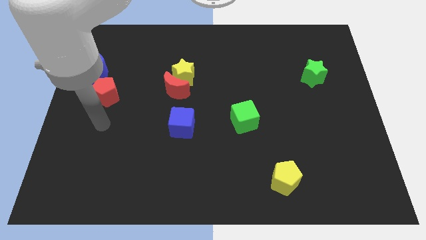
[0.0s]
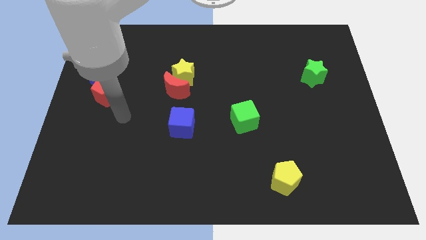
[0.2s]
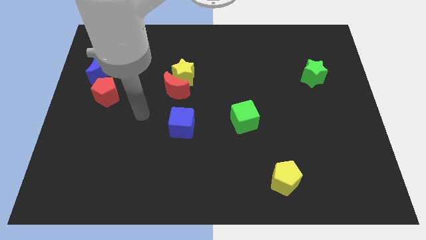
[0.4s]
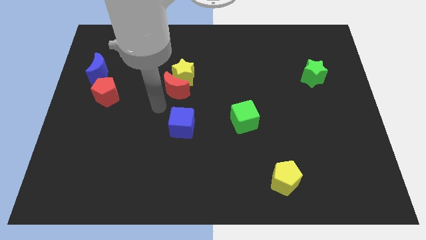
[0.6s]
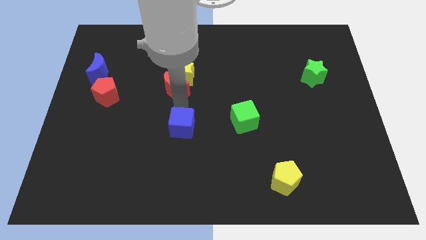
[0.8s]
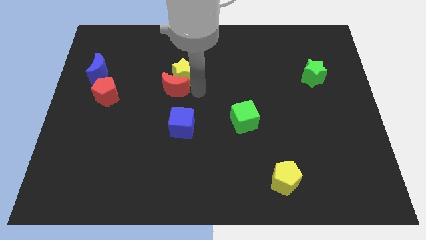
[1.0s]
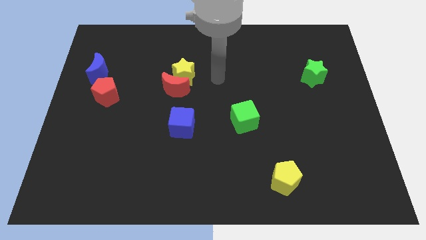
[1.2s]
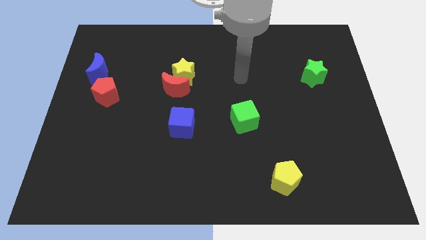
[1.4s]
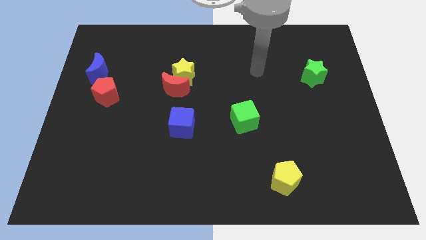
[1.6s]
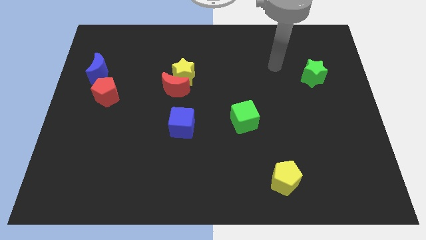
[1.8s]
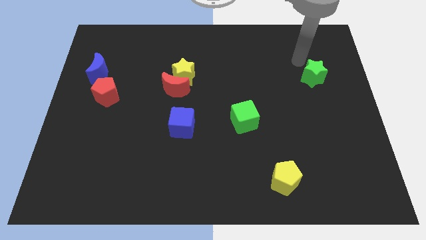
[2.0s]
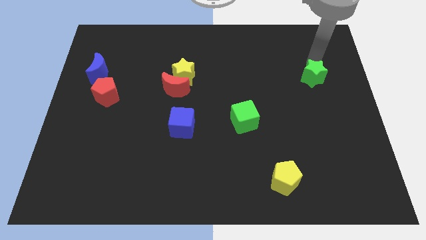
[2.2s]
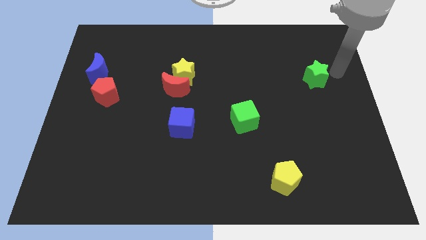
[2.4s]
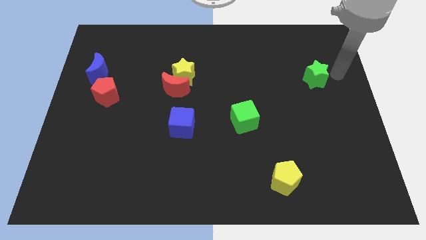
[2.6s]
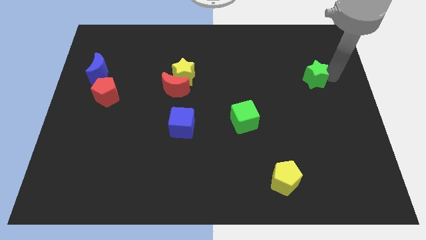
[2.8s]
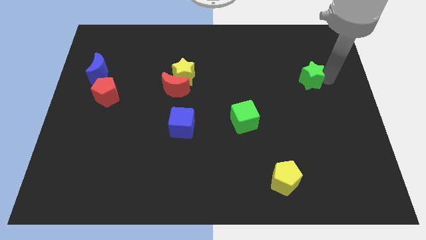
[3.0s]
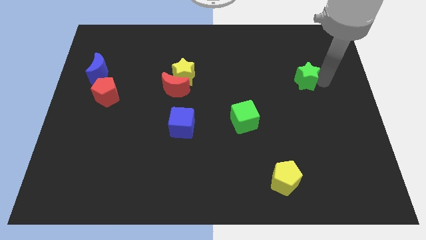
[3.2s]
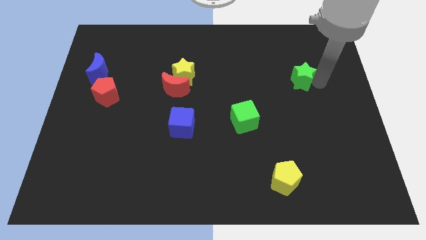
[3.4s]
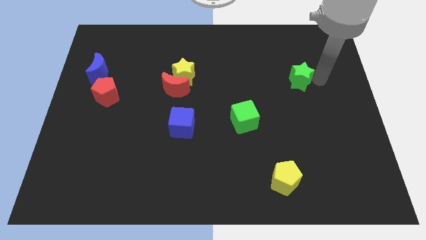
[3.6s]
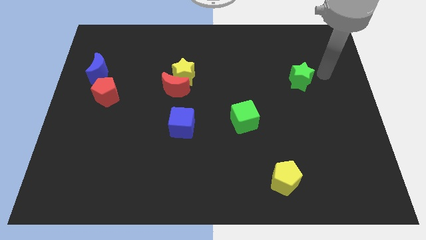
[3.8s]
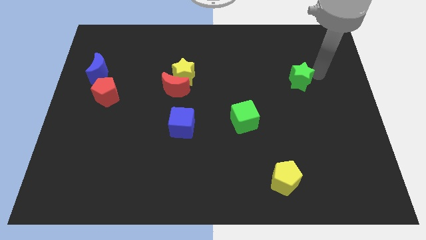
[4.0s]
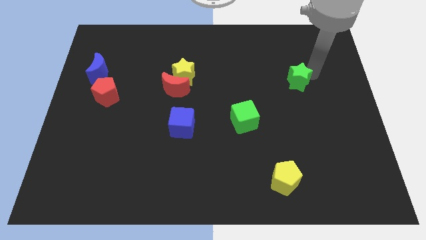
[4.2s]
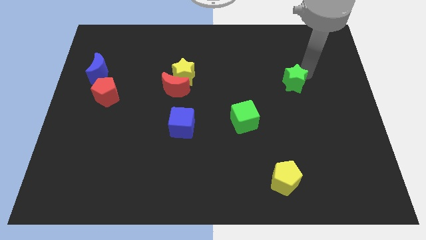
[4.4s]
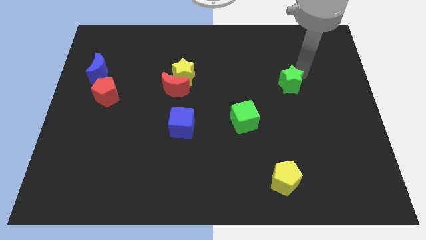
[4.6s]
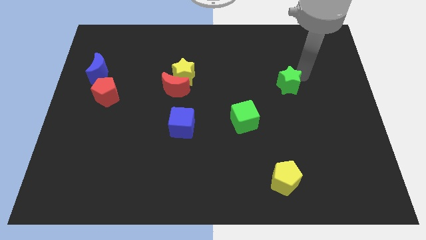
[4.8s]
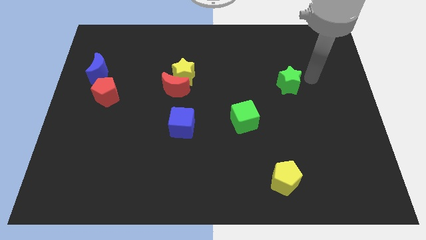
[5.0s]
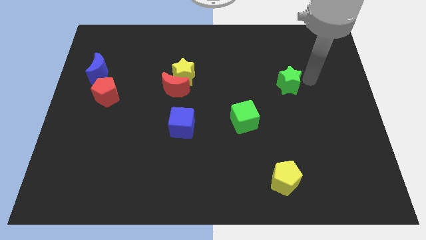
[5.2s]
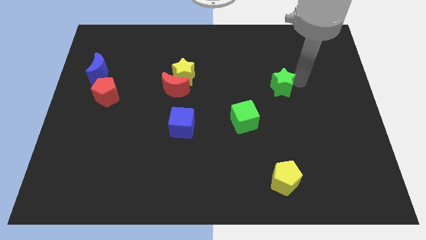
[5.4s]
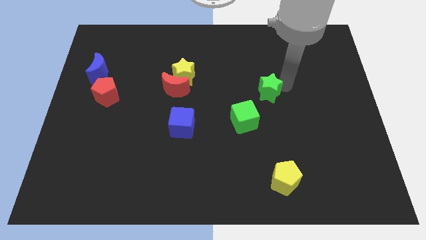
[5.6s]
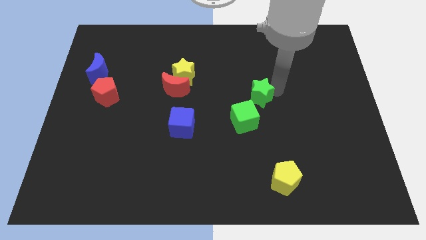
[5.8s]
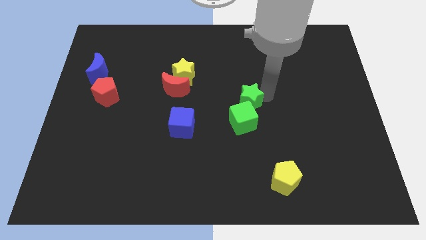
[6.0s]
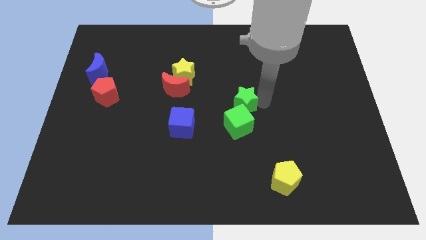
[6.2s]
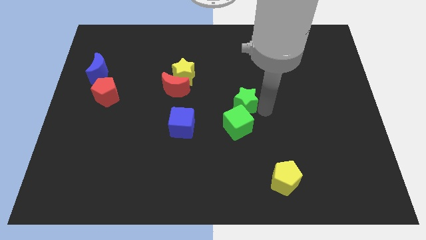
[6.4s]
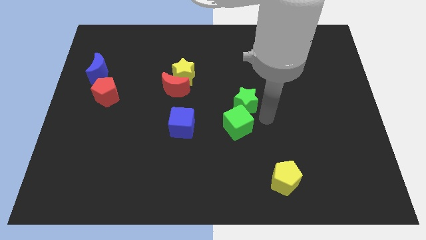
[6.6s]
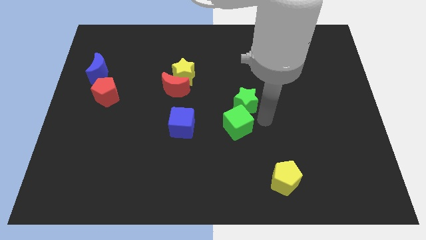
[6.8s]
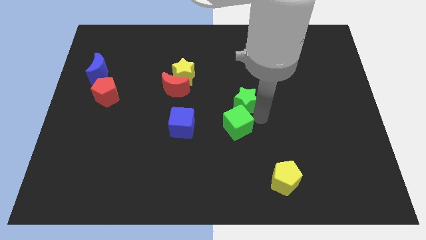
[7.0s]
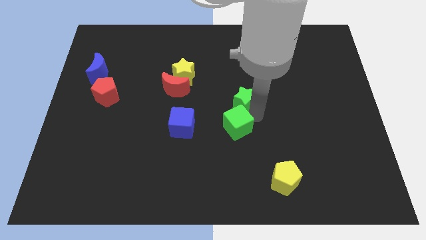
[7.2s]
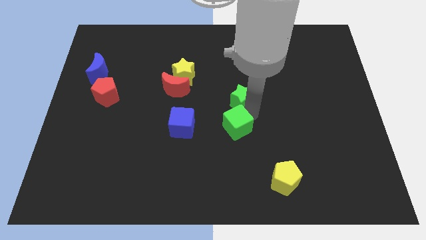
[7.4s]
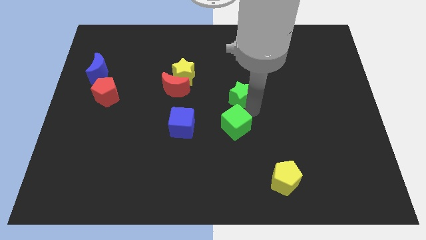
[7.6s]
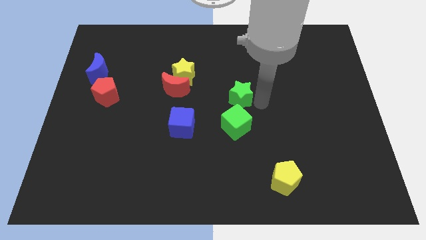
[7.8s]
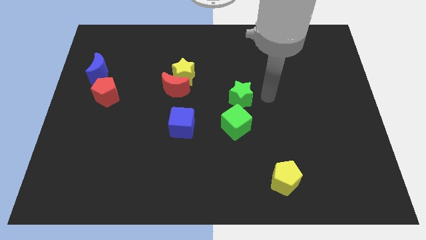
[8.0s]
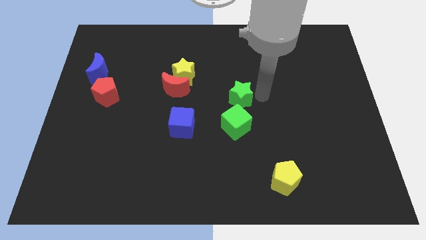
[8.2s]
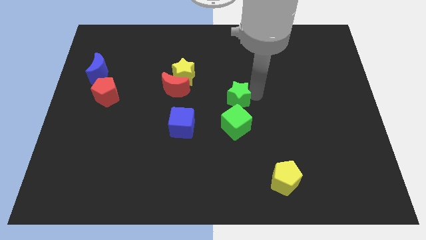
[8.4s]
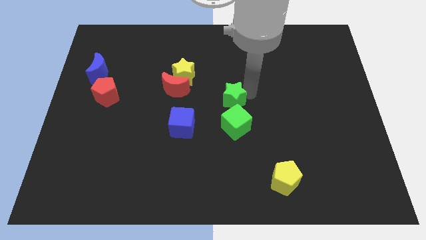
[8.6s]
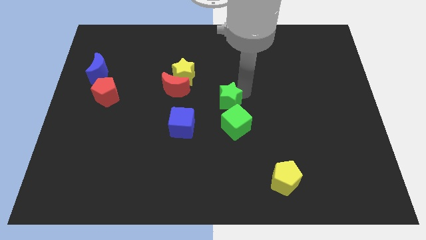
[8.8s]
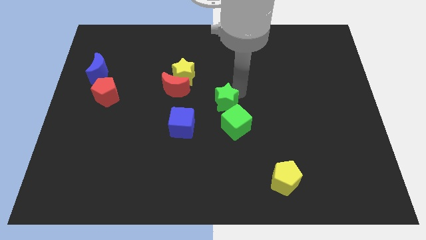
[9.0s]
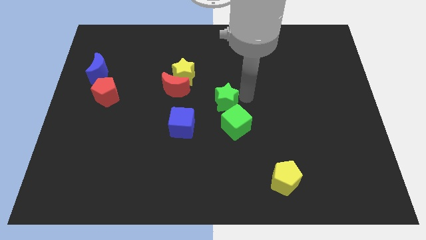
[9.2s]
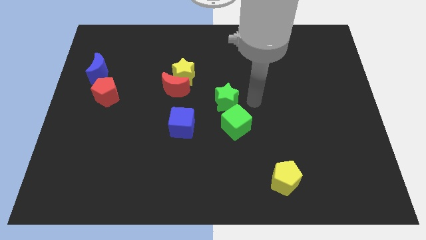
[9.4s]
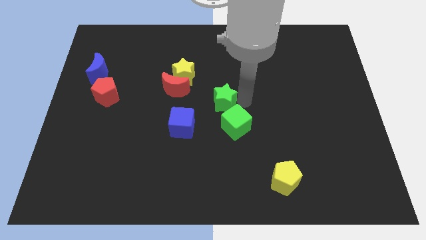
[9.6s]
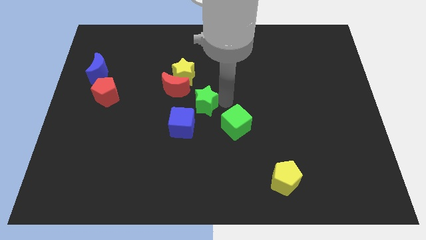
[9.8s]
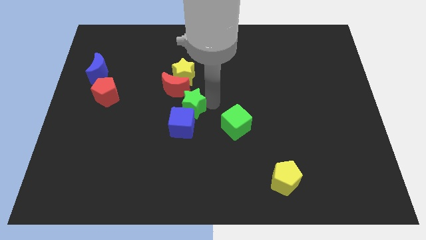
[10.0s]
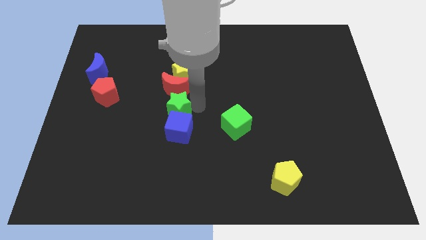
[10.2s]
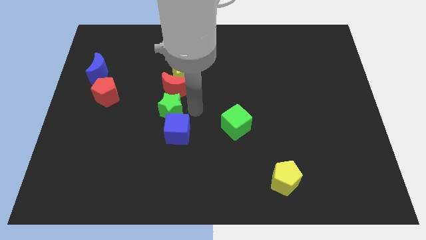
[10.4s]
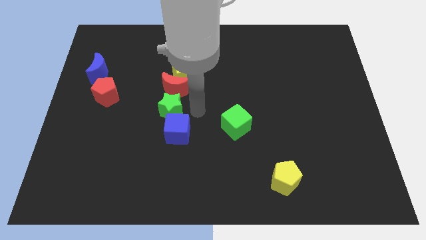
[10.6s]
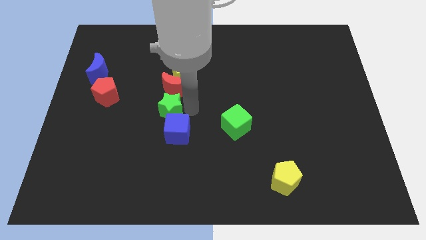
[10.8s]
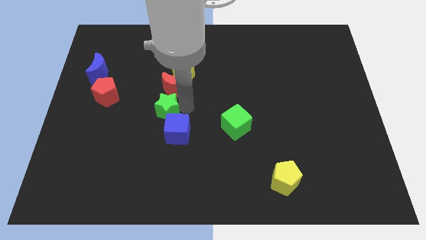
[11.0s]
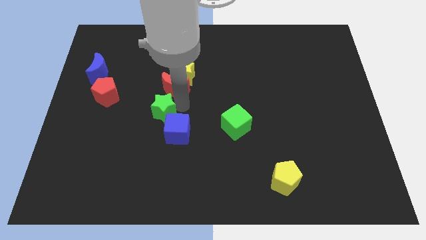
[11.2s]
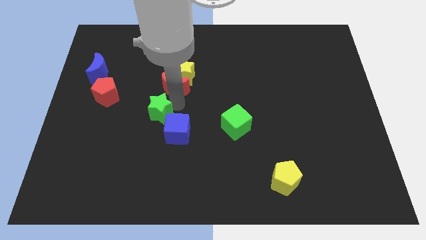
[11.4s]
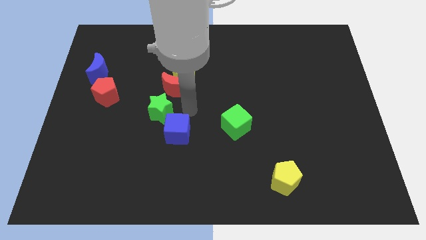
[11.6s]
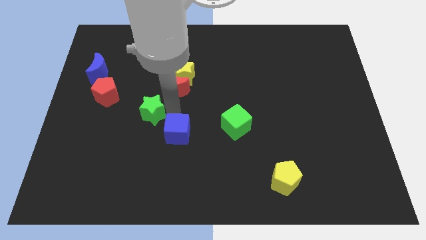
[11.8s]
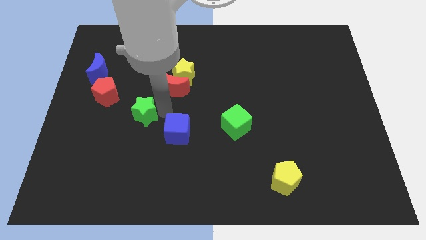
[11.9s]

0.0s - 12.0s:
put the green star to the bottom right of the red pentagon

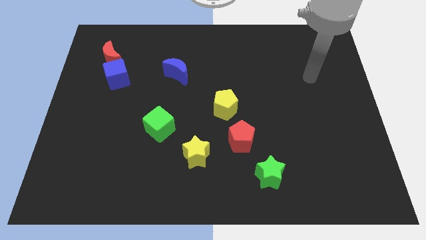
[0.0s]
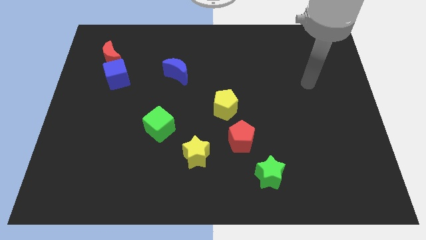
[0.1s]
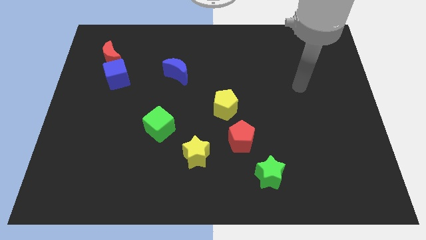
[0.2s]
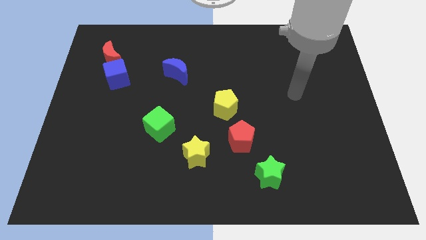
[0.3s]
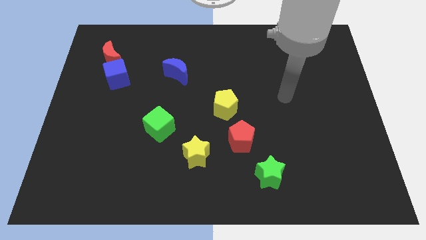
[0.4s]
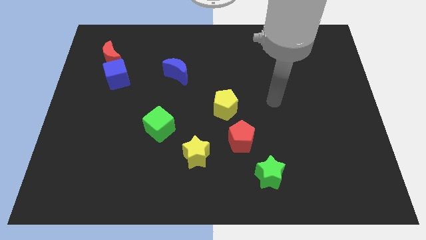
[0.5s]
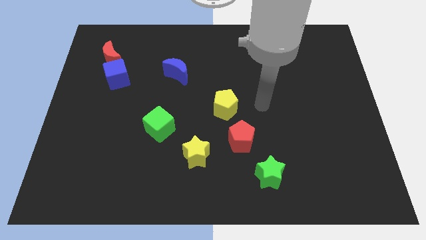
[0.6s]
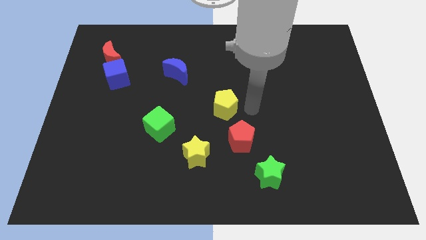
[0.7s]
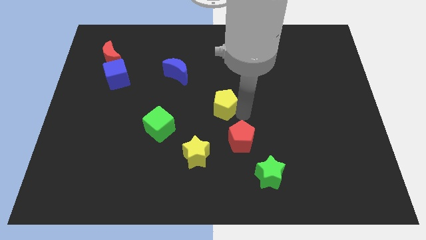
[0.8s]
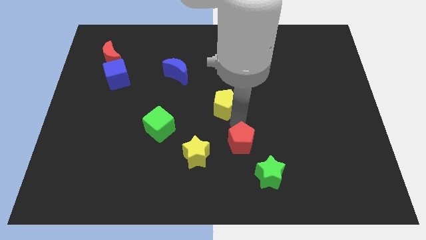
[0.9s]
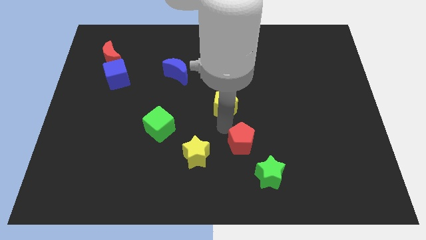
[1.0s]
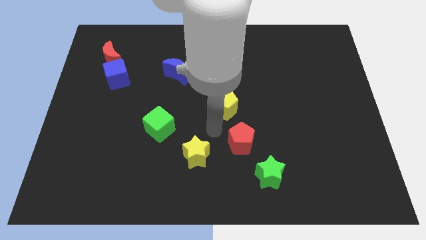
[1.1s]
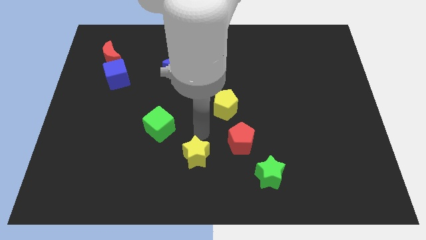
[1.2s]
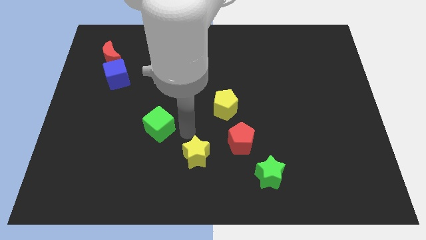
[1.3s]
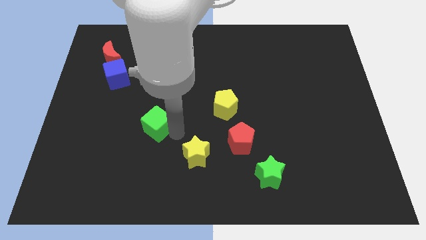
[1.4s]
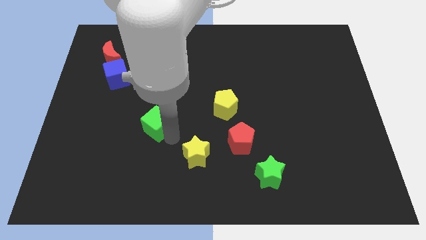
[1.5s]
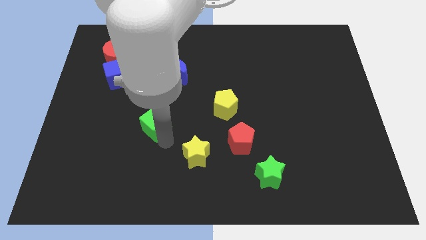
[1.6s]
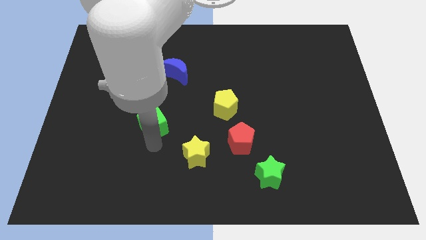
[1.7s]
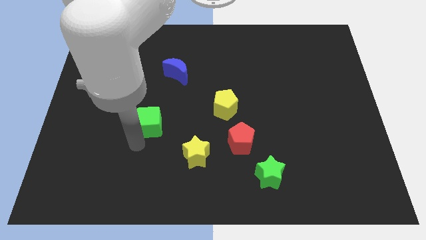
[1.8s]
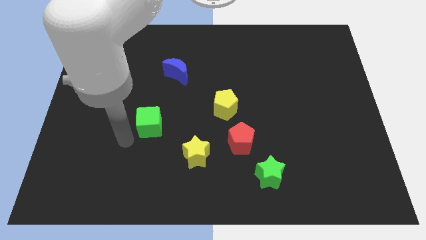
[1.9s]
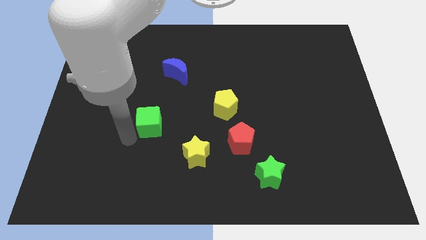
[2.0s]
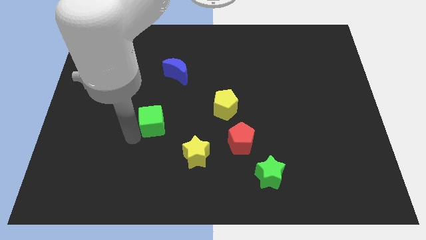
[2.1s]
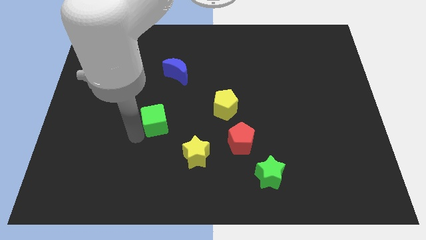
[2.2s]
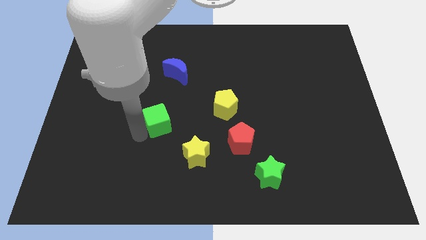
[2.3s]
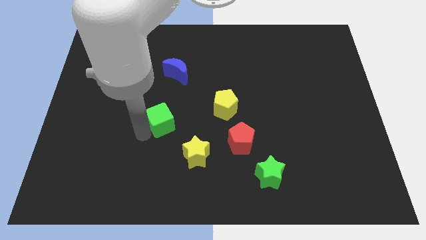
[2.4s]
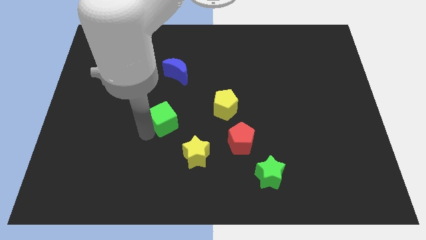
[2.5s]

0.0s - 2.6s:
push the green cube to the left side of the yellow pentagon
